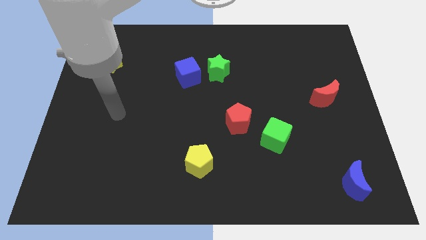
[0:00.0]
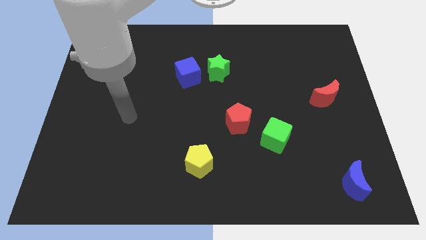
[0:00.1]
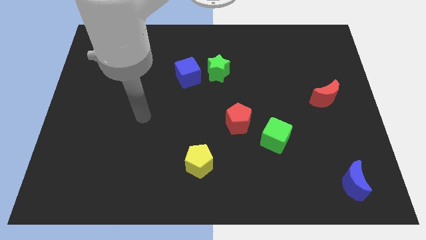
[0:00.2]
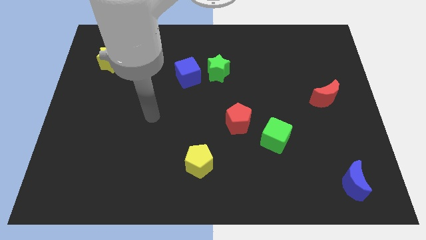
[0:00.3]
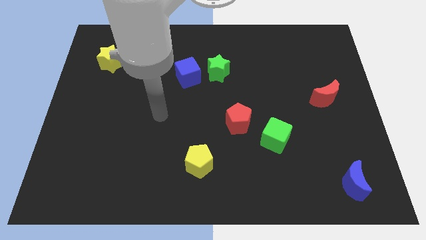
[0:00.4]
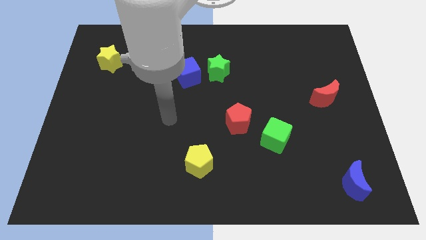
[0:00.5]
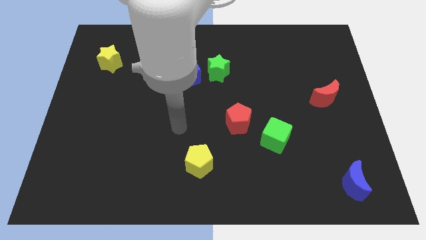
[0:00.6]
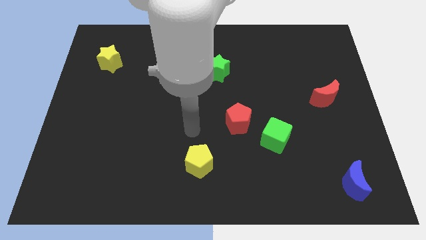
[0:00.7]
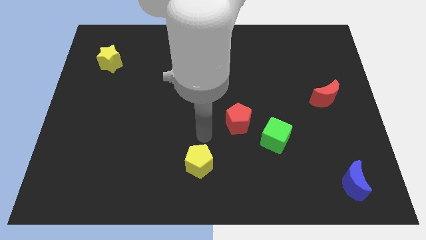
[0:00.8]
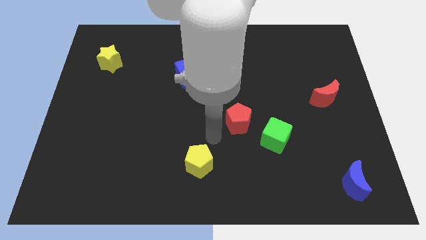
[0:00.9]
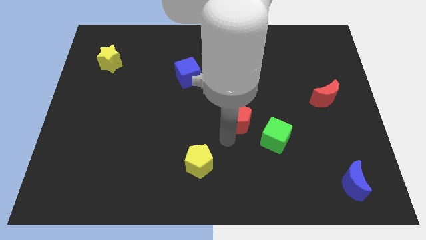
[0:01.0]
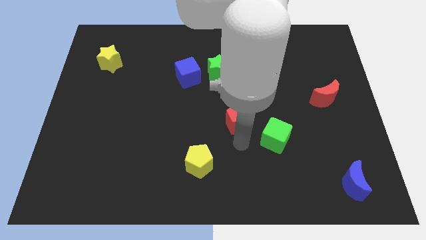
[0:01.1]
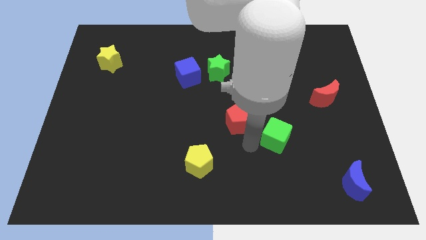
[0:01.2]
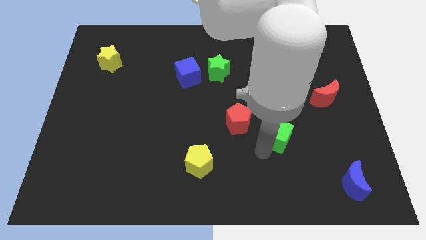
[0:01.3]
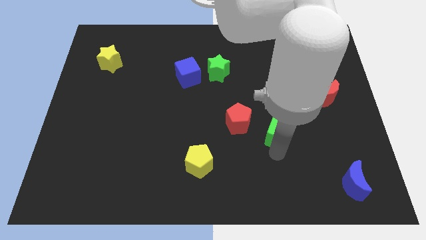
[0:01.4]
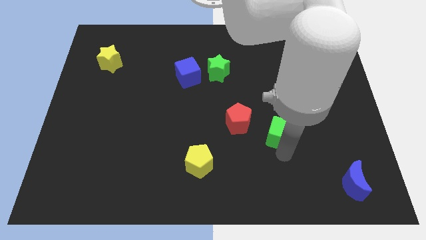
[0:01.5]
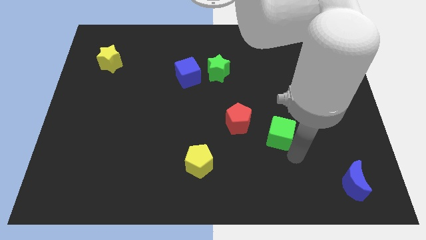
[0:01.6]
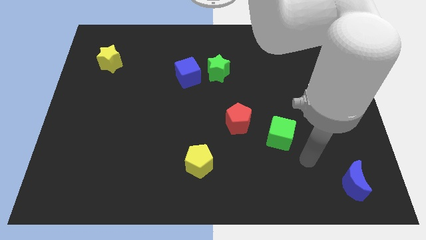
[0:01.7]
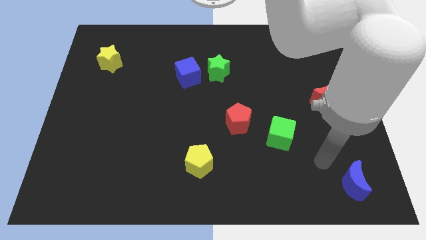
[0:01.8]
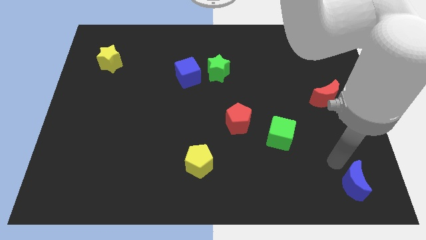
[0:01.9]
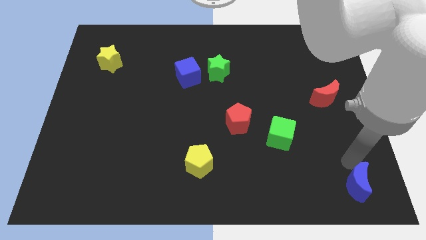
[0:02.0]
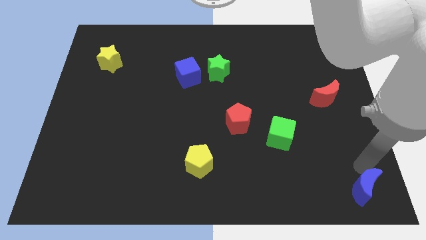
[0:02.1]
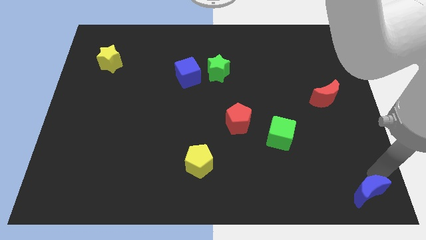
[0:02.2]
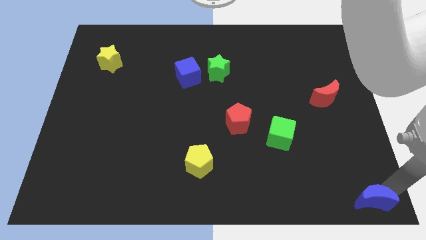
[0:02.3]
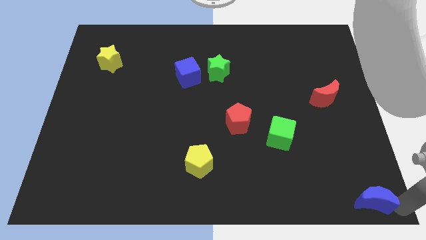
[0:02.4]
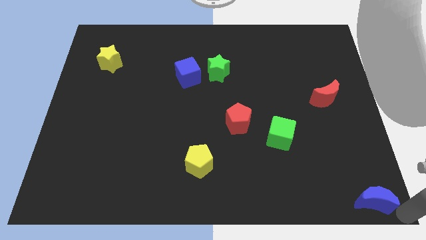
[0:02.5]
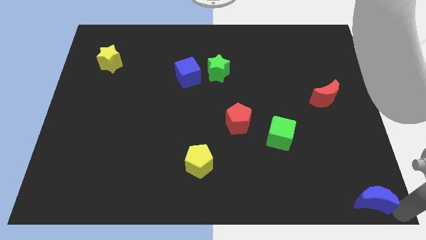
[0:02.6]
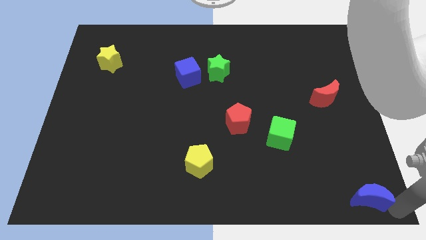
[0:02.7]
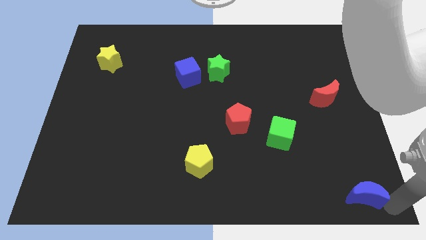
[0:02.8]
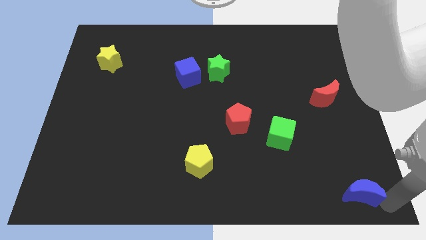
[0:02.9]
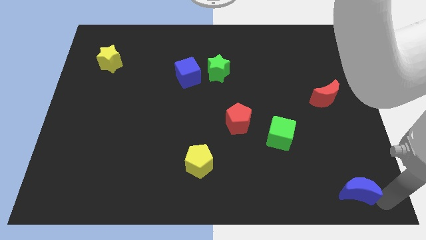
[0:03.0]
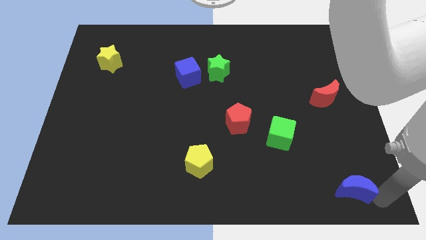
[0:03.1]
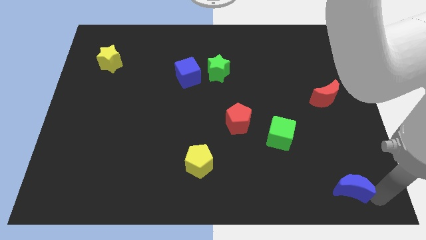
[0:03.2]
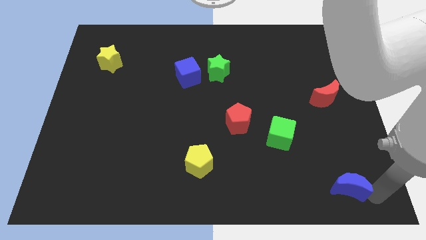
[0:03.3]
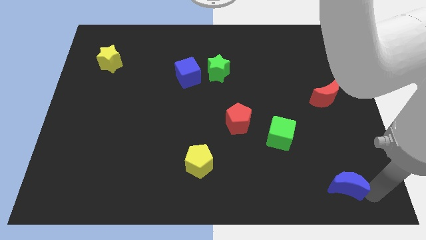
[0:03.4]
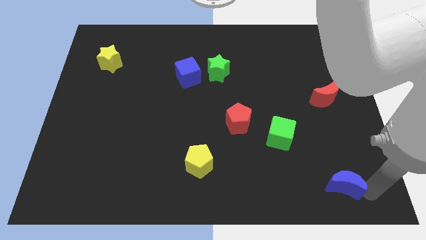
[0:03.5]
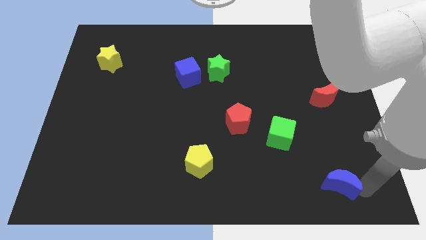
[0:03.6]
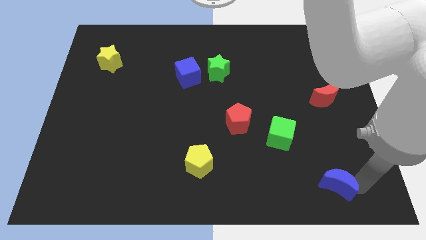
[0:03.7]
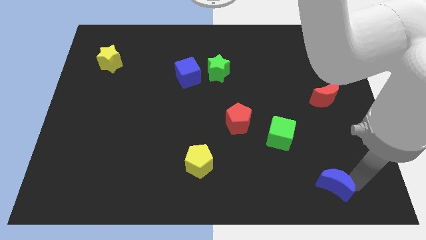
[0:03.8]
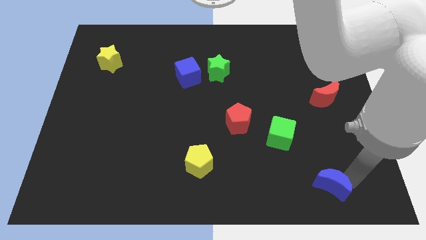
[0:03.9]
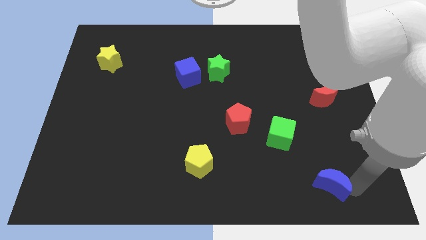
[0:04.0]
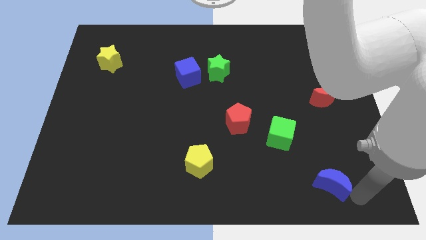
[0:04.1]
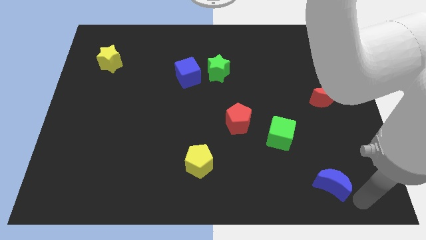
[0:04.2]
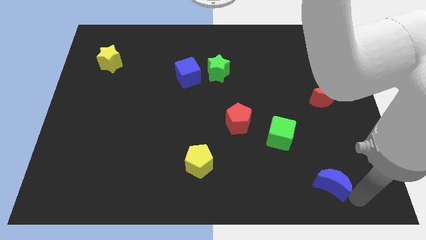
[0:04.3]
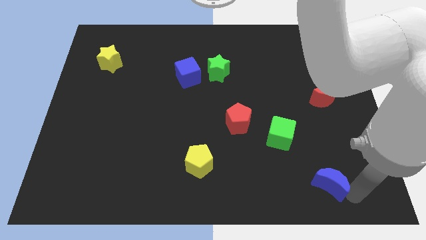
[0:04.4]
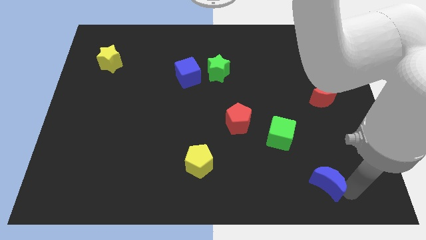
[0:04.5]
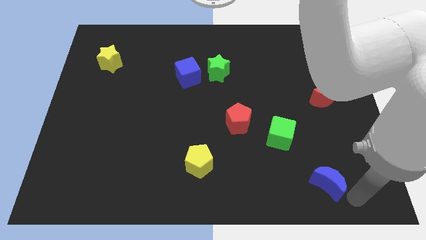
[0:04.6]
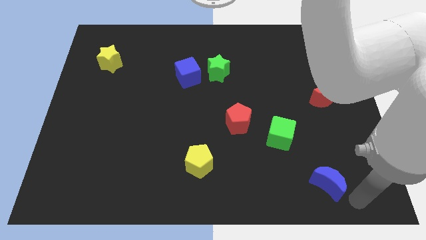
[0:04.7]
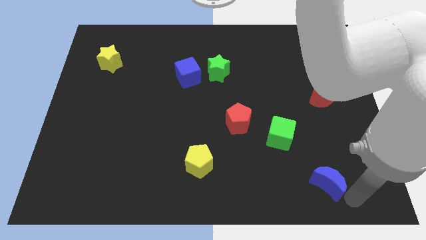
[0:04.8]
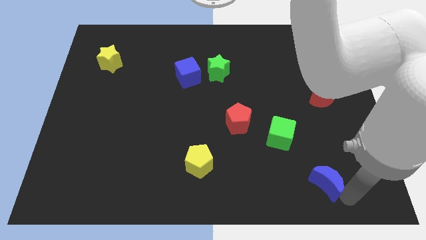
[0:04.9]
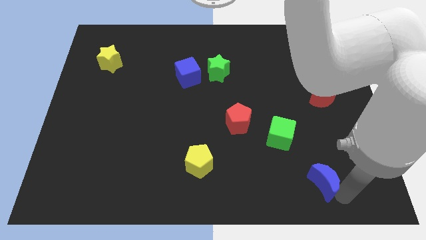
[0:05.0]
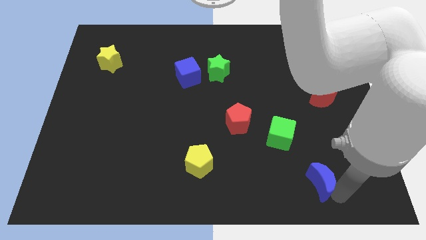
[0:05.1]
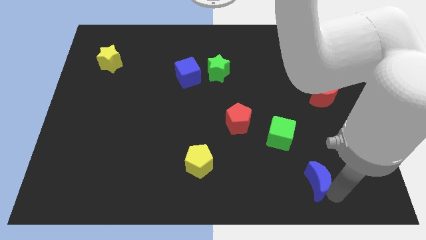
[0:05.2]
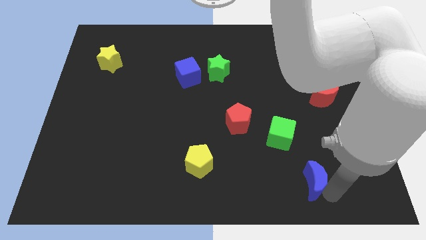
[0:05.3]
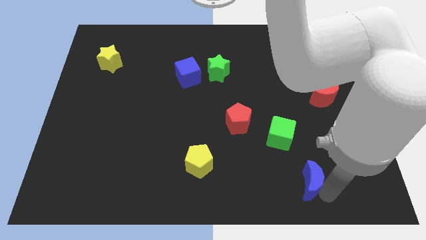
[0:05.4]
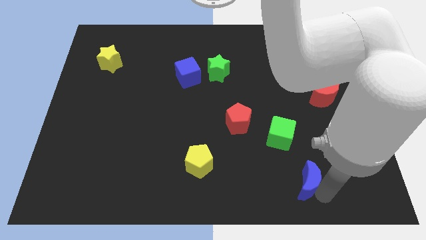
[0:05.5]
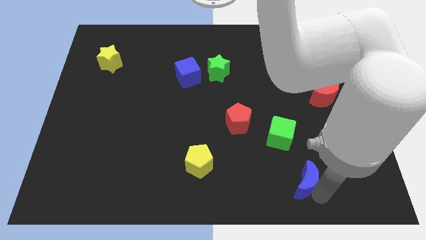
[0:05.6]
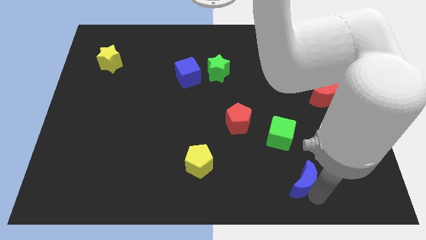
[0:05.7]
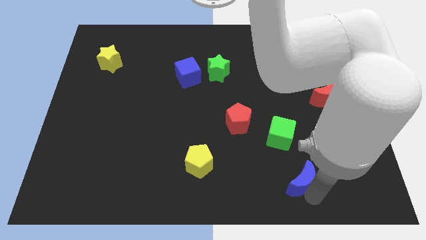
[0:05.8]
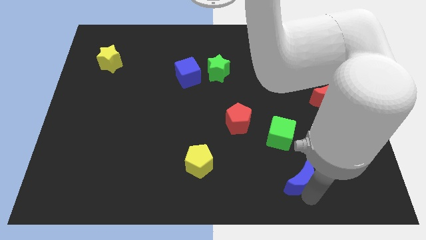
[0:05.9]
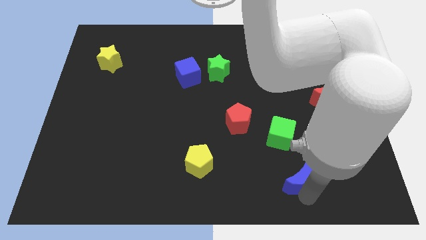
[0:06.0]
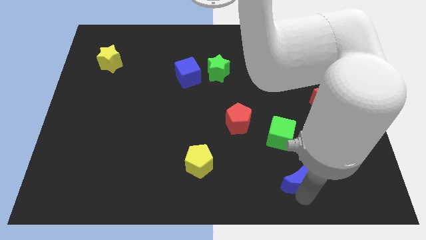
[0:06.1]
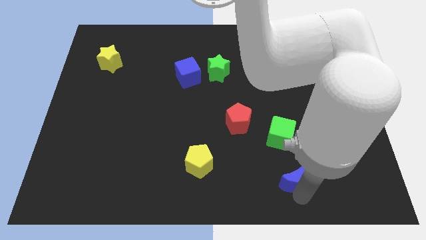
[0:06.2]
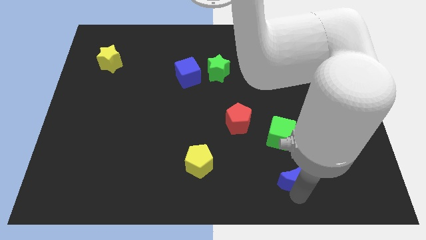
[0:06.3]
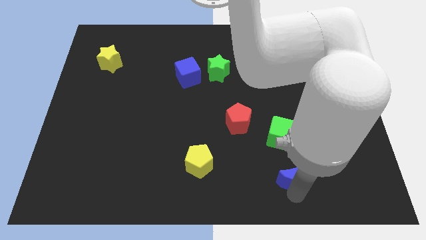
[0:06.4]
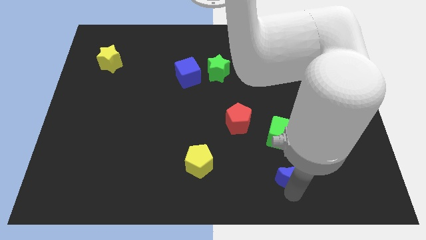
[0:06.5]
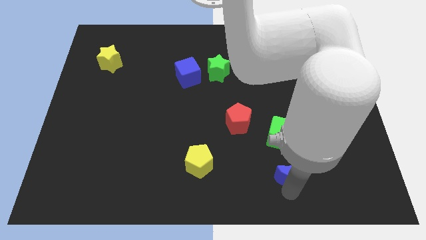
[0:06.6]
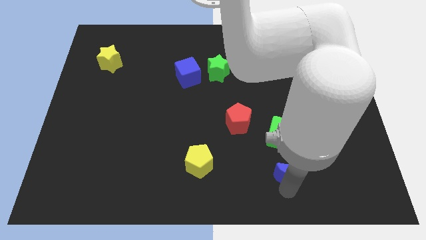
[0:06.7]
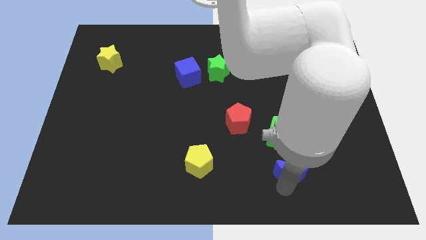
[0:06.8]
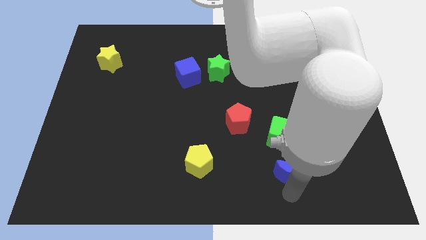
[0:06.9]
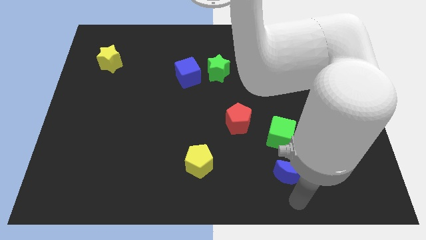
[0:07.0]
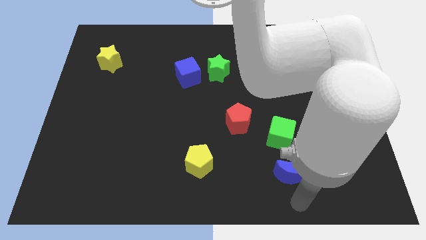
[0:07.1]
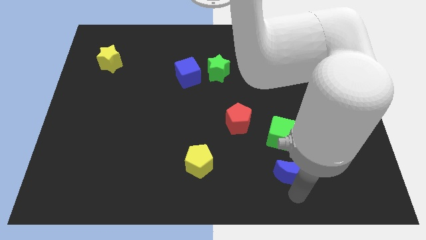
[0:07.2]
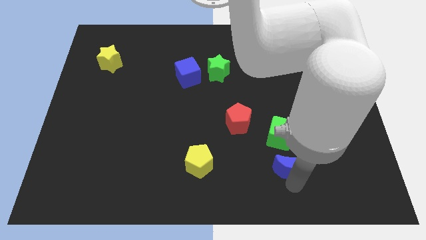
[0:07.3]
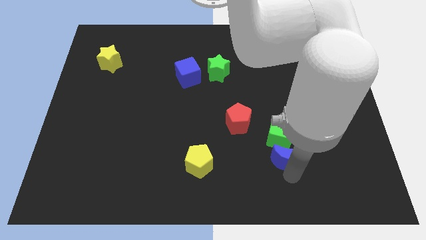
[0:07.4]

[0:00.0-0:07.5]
push the blue moon close to the green cube
